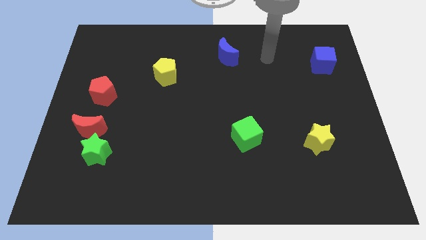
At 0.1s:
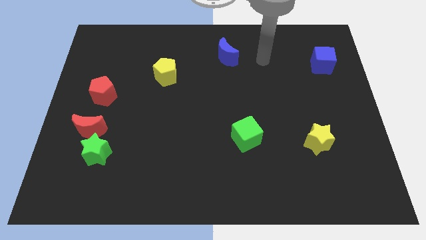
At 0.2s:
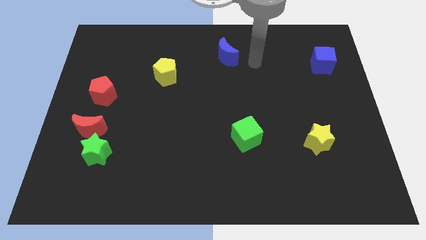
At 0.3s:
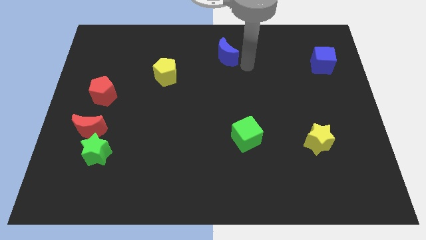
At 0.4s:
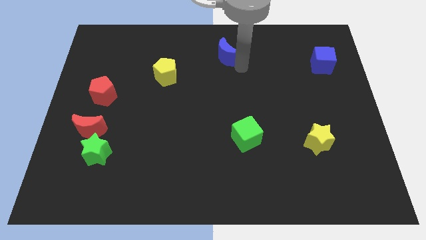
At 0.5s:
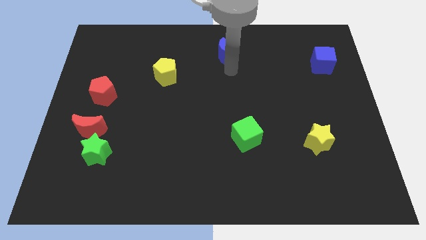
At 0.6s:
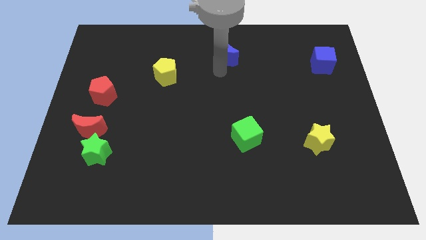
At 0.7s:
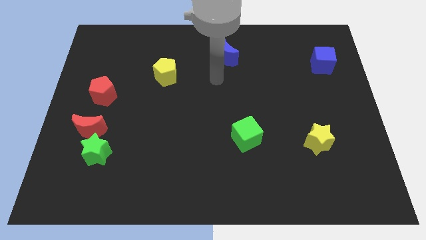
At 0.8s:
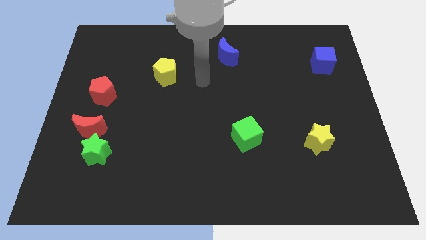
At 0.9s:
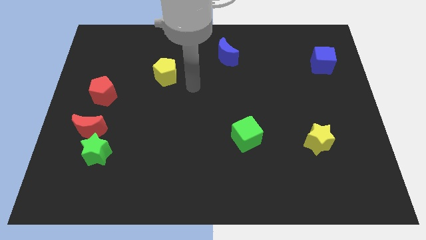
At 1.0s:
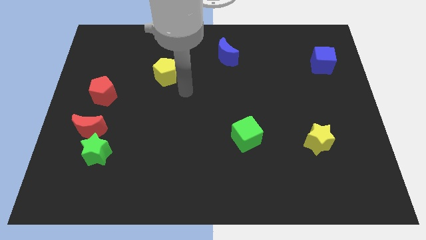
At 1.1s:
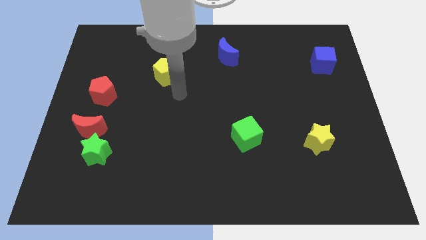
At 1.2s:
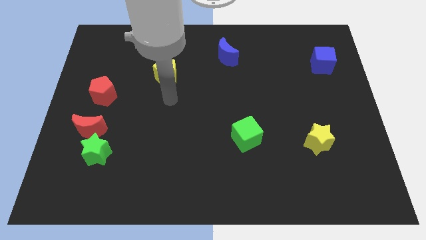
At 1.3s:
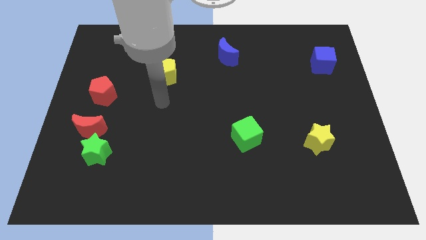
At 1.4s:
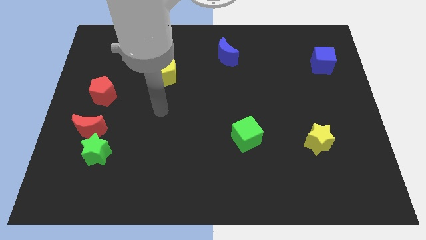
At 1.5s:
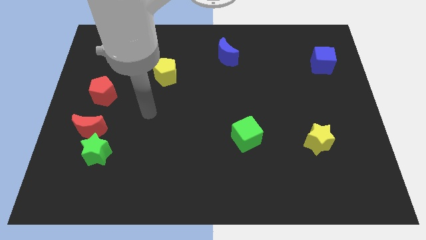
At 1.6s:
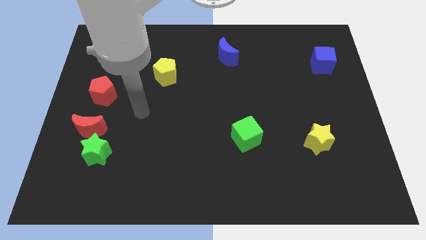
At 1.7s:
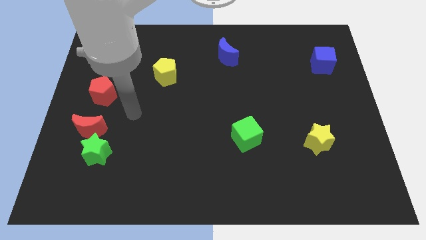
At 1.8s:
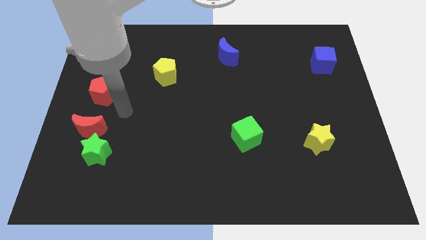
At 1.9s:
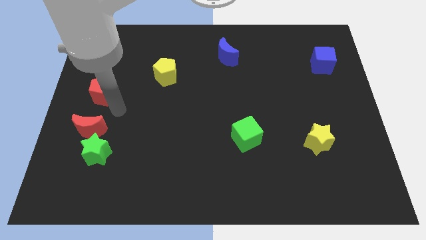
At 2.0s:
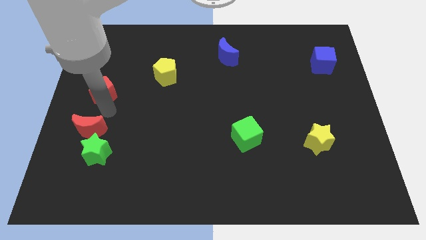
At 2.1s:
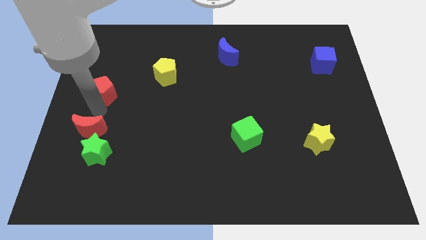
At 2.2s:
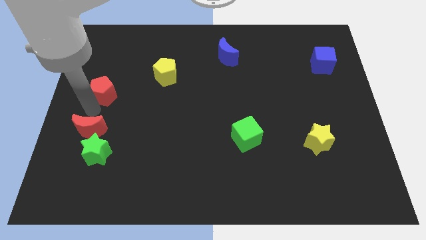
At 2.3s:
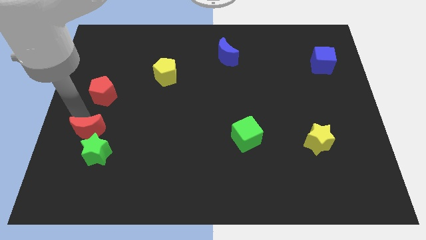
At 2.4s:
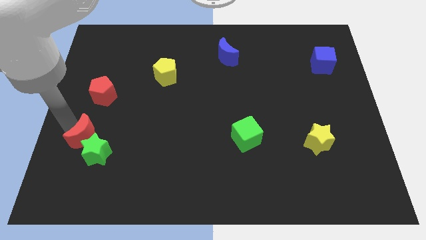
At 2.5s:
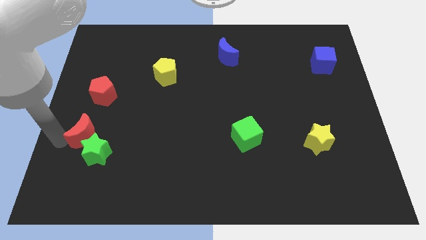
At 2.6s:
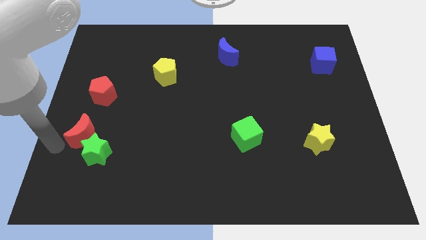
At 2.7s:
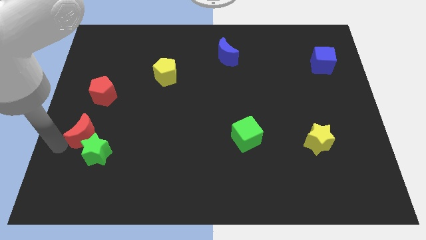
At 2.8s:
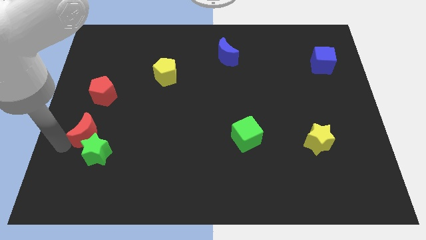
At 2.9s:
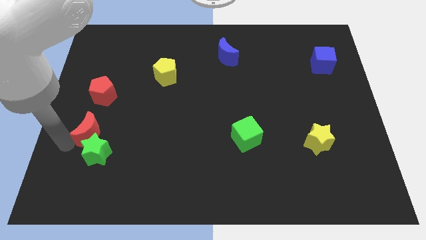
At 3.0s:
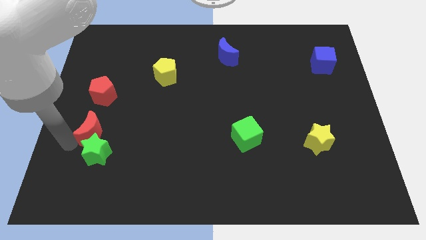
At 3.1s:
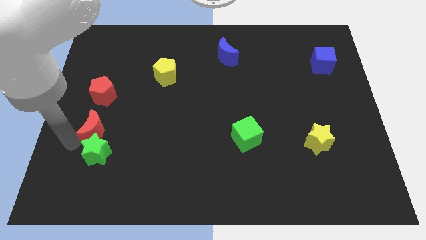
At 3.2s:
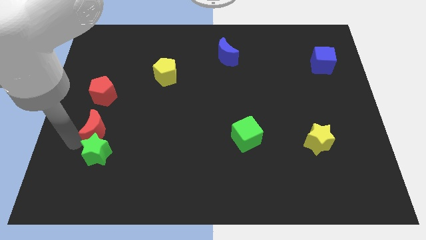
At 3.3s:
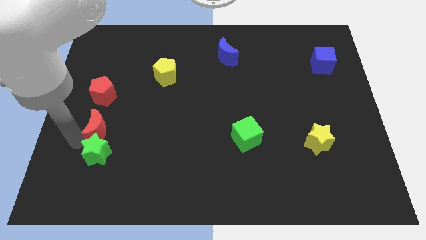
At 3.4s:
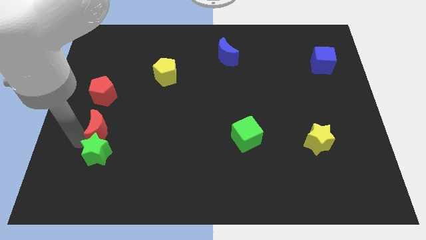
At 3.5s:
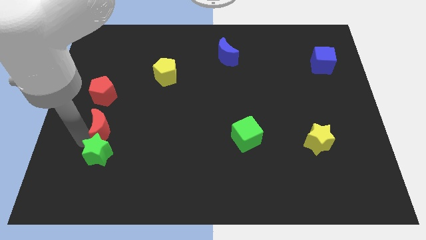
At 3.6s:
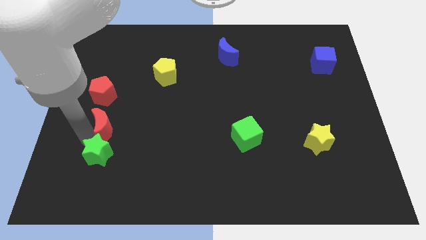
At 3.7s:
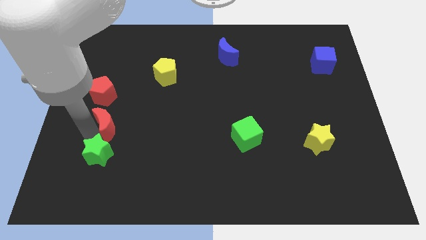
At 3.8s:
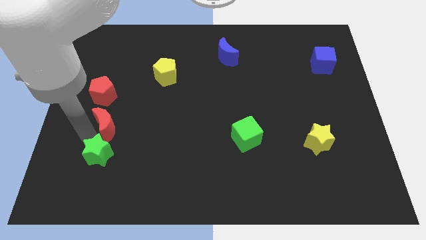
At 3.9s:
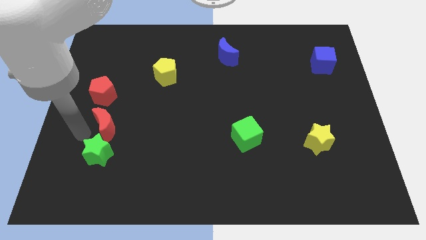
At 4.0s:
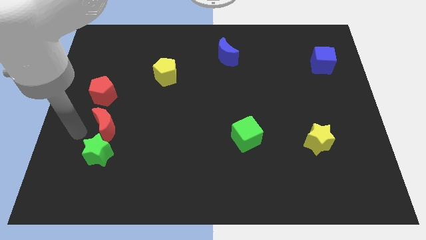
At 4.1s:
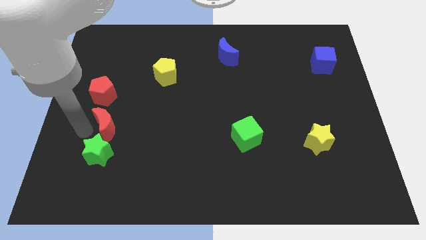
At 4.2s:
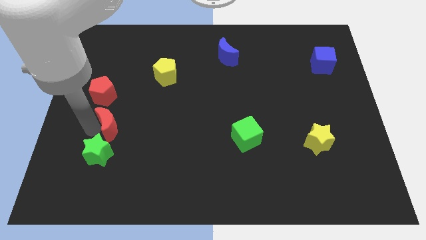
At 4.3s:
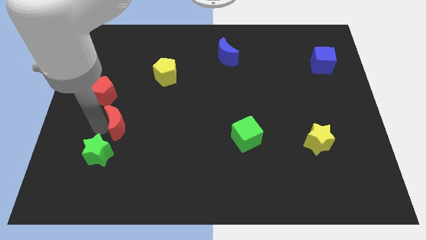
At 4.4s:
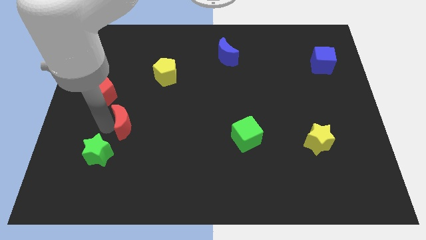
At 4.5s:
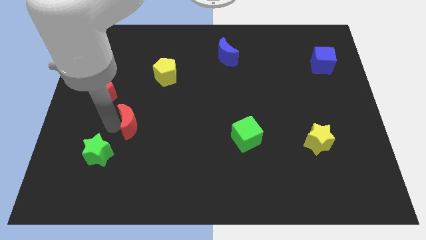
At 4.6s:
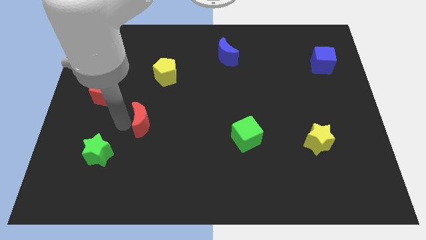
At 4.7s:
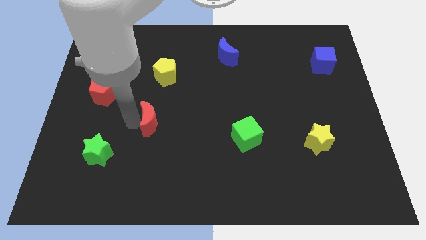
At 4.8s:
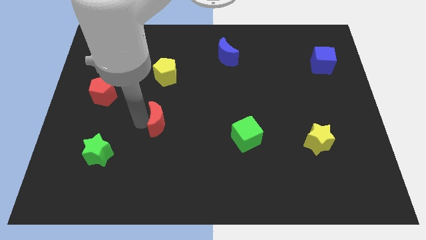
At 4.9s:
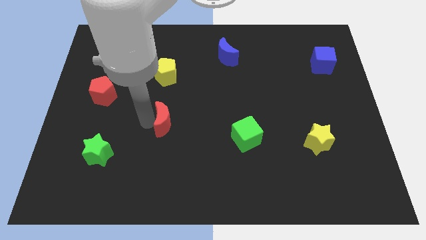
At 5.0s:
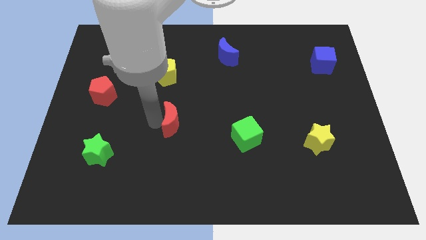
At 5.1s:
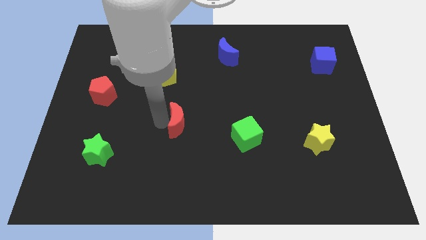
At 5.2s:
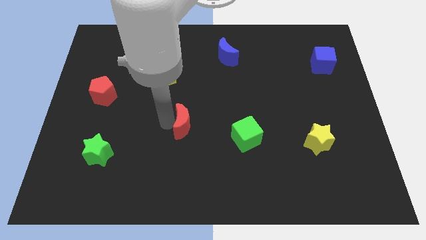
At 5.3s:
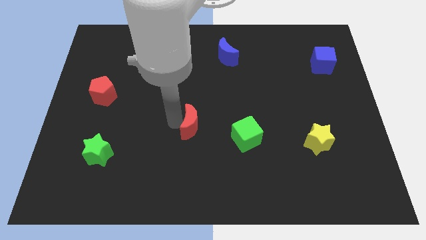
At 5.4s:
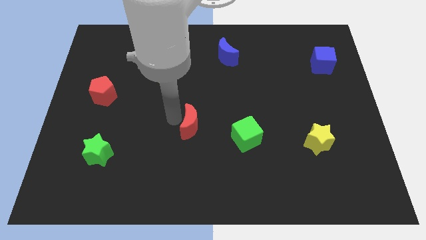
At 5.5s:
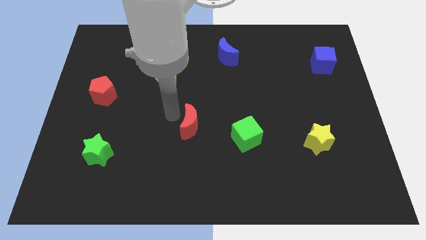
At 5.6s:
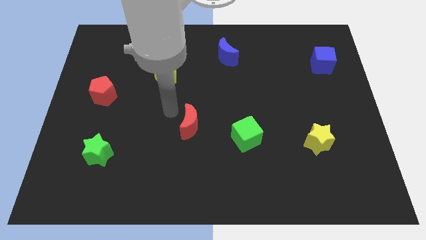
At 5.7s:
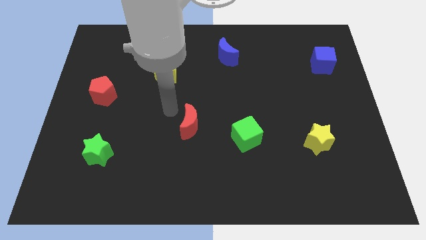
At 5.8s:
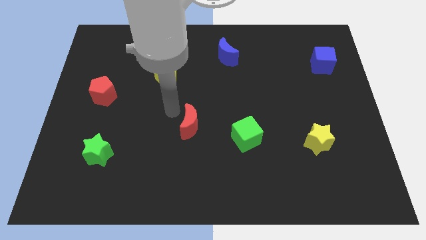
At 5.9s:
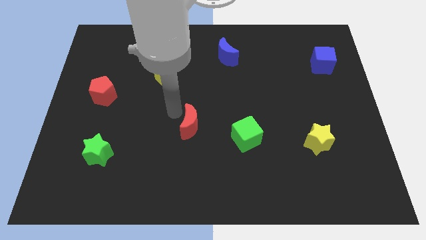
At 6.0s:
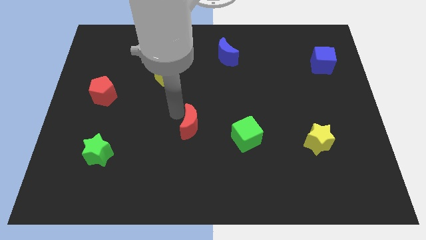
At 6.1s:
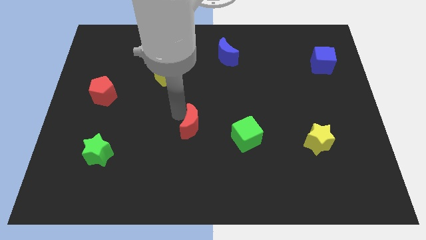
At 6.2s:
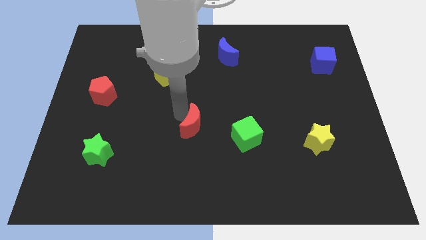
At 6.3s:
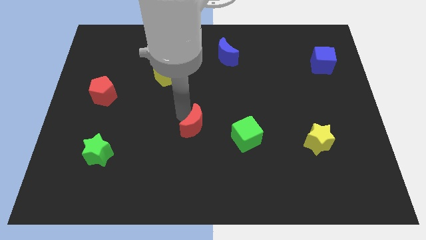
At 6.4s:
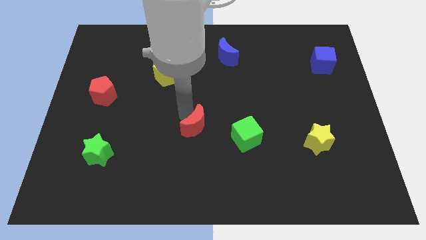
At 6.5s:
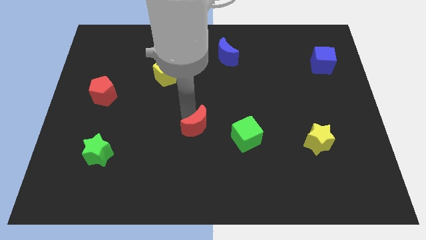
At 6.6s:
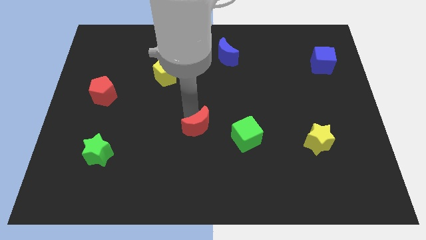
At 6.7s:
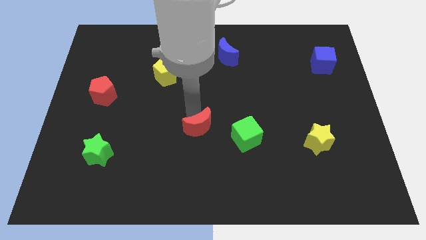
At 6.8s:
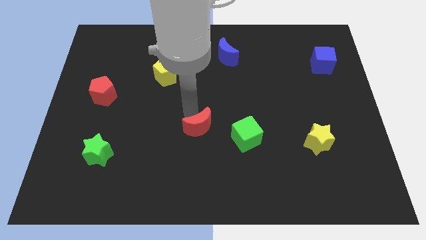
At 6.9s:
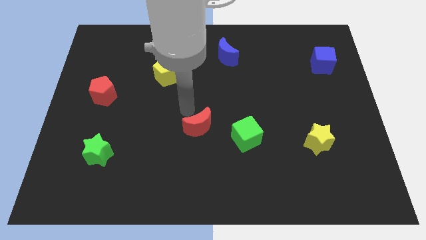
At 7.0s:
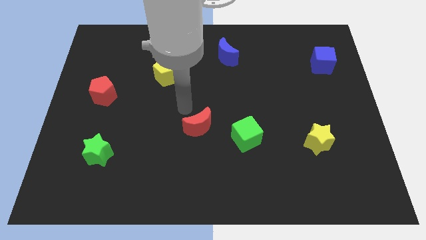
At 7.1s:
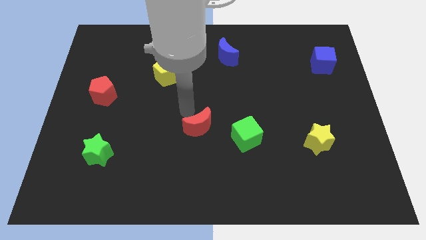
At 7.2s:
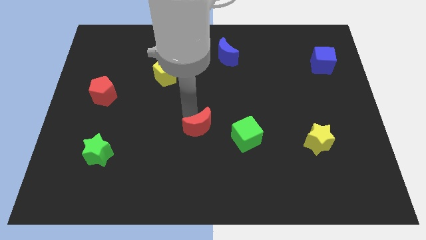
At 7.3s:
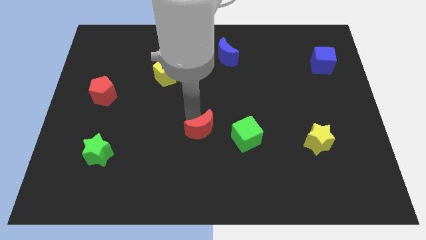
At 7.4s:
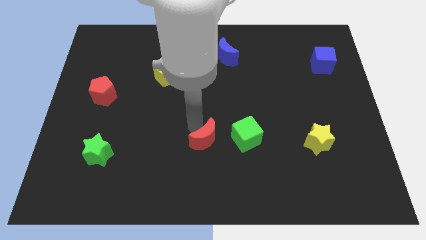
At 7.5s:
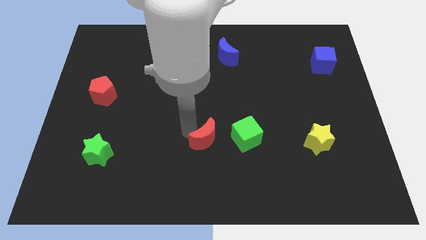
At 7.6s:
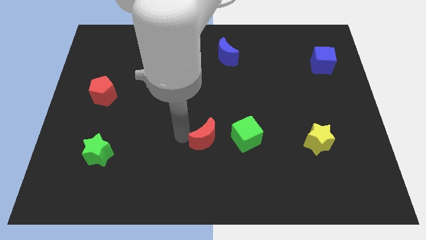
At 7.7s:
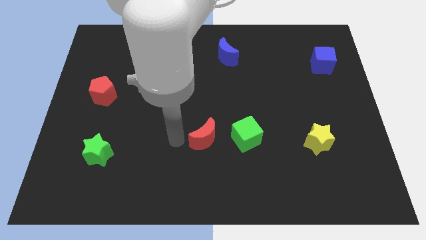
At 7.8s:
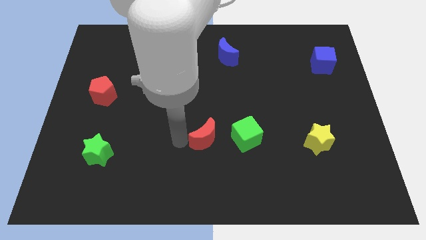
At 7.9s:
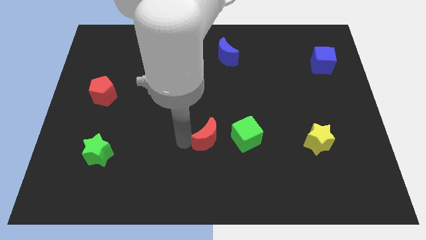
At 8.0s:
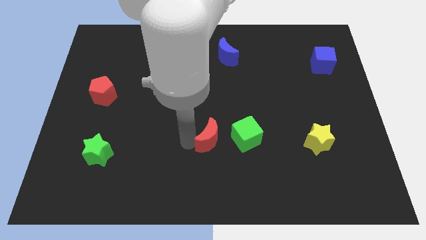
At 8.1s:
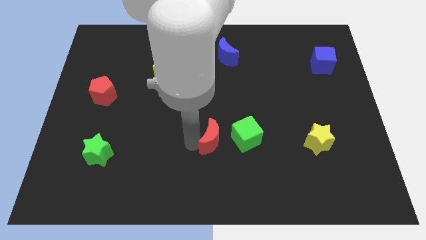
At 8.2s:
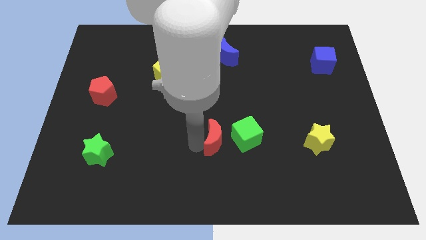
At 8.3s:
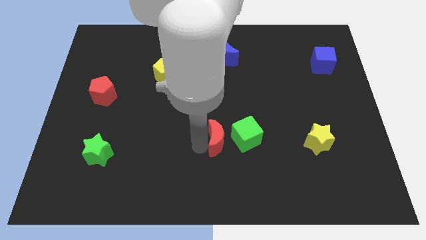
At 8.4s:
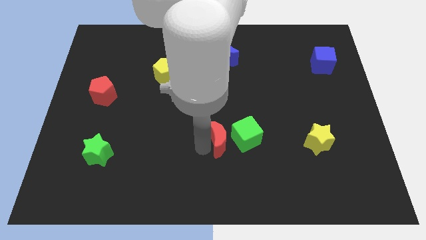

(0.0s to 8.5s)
slide the red moon towards the green cube
